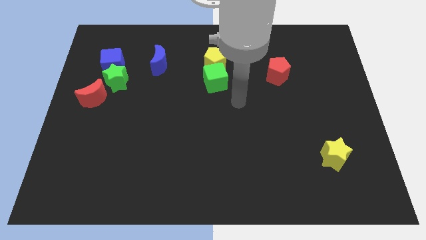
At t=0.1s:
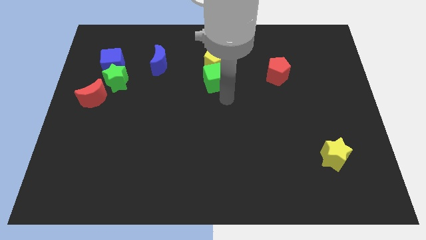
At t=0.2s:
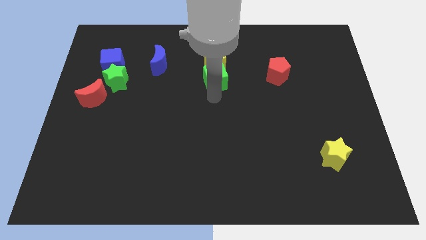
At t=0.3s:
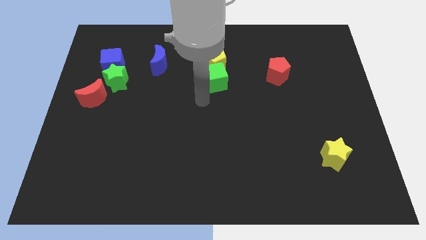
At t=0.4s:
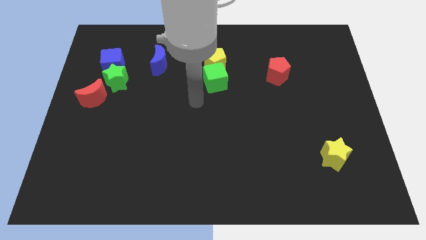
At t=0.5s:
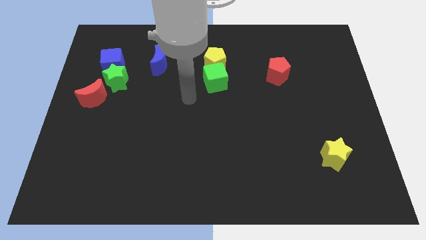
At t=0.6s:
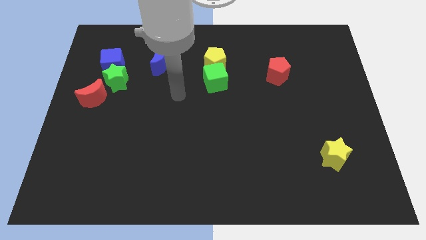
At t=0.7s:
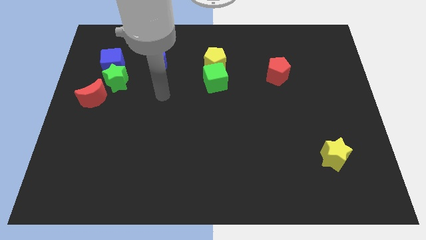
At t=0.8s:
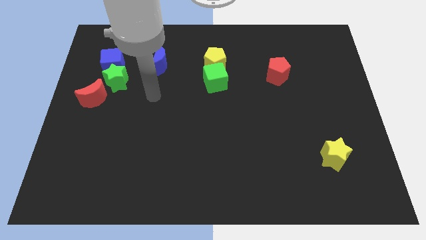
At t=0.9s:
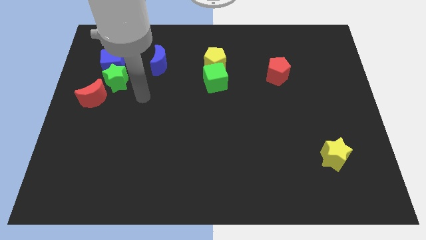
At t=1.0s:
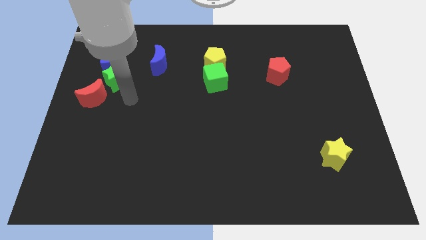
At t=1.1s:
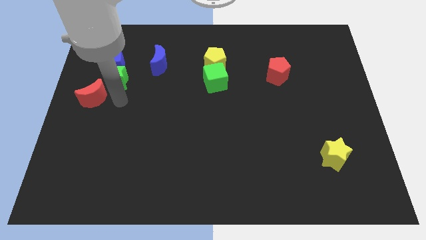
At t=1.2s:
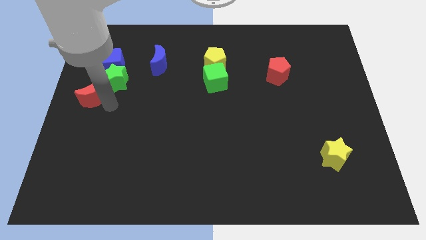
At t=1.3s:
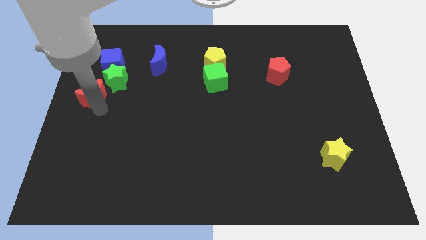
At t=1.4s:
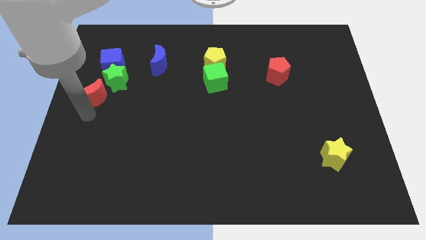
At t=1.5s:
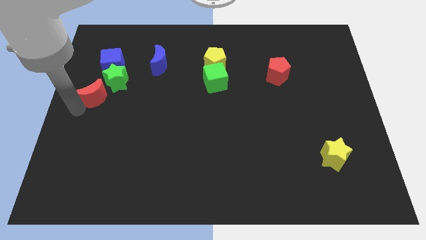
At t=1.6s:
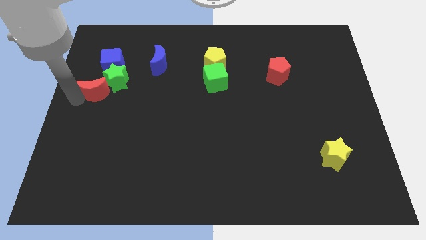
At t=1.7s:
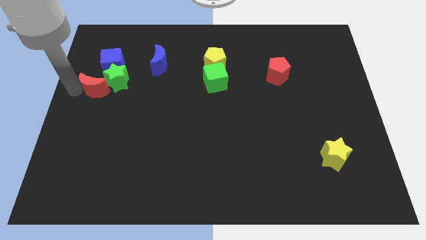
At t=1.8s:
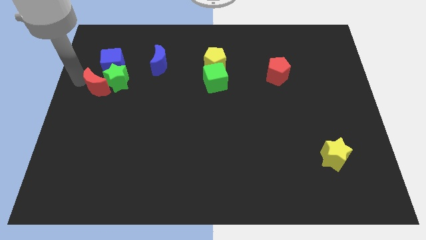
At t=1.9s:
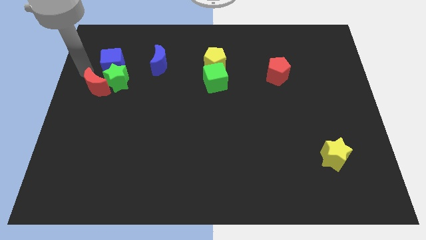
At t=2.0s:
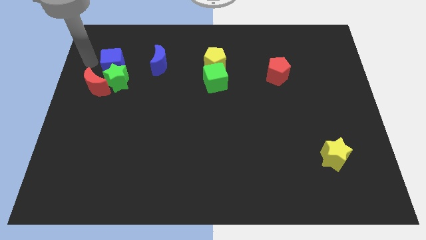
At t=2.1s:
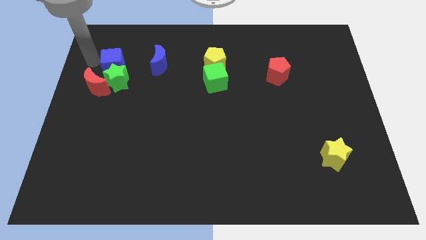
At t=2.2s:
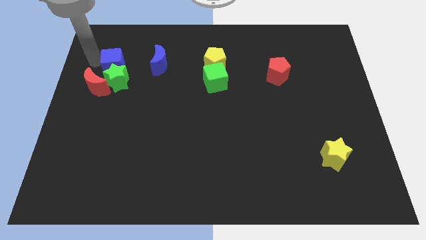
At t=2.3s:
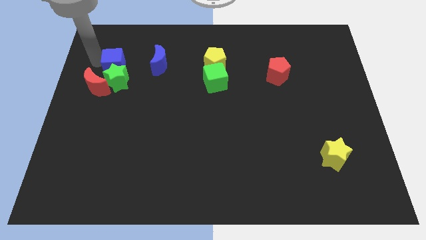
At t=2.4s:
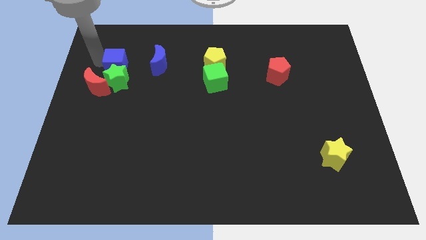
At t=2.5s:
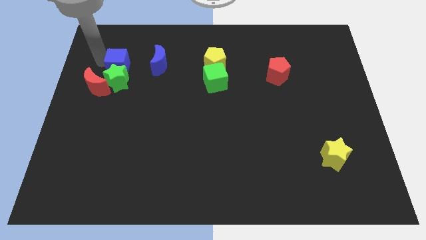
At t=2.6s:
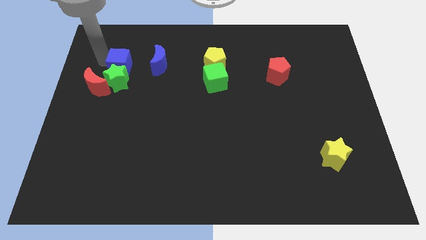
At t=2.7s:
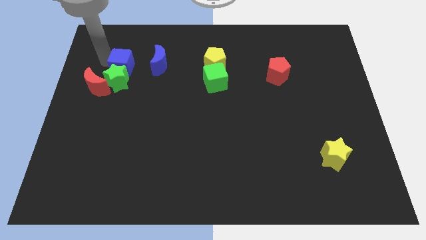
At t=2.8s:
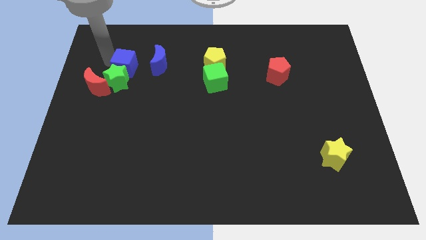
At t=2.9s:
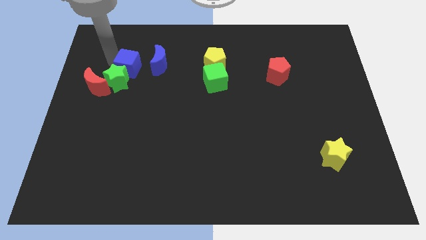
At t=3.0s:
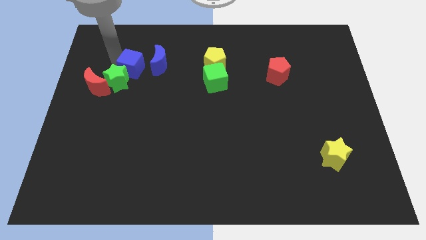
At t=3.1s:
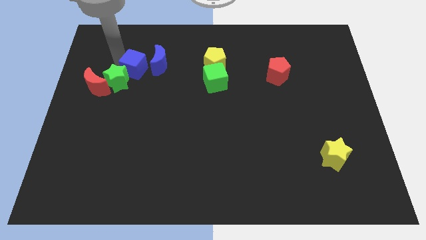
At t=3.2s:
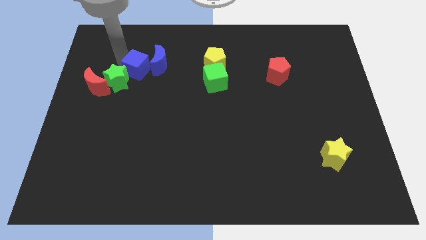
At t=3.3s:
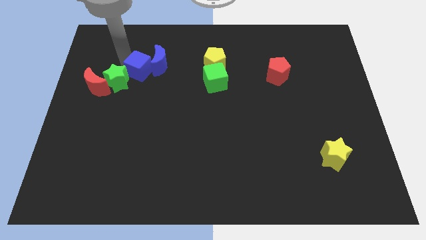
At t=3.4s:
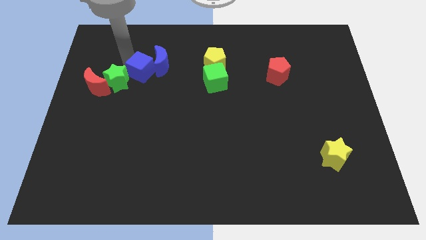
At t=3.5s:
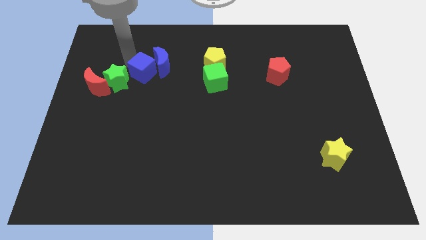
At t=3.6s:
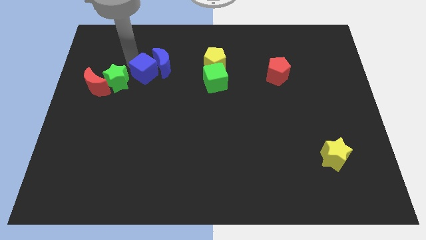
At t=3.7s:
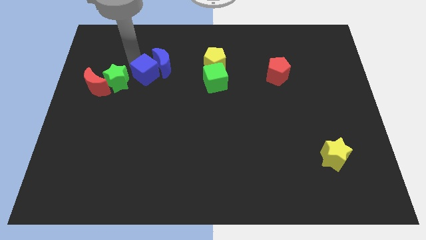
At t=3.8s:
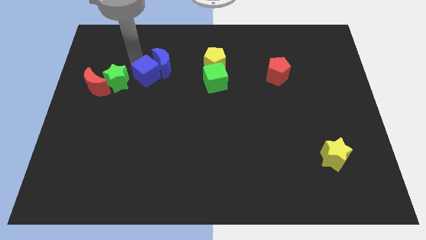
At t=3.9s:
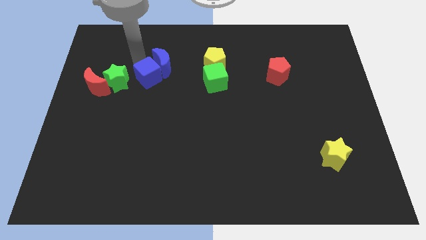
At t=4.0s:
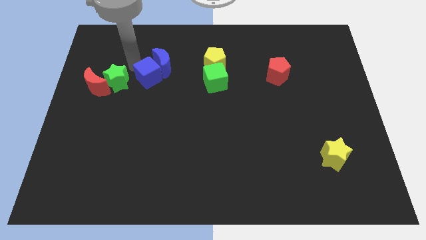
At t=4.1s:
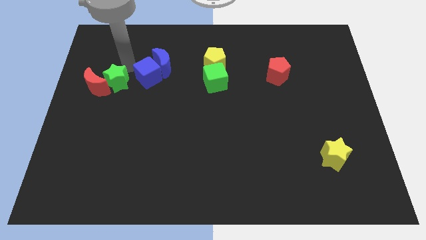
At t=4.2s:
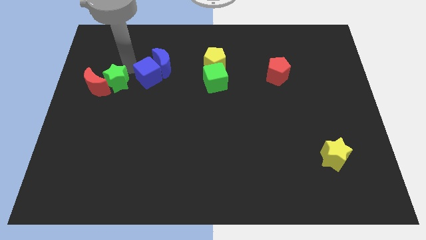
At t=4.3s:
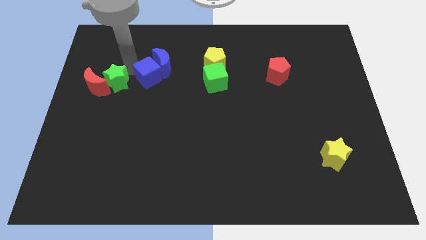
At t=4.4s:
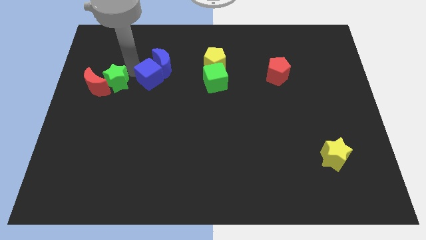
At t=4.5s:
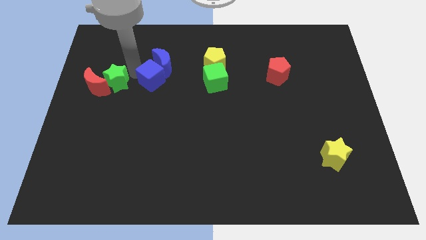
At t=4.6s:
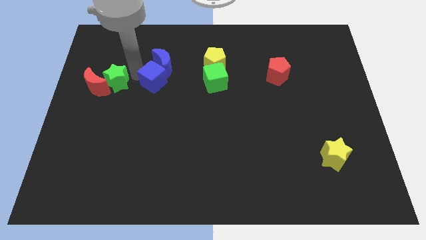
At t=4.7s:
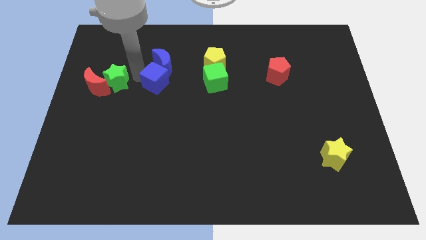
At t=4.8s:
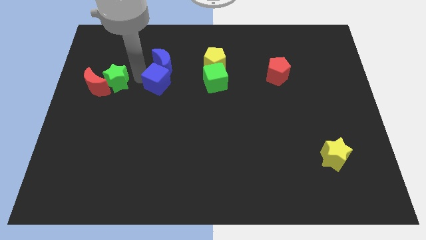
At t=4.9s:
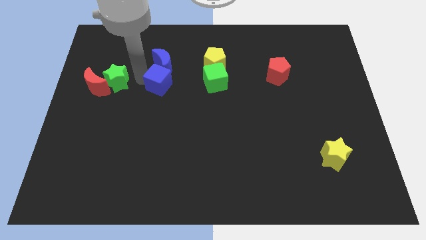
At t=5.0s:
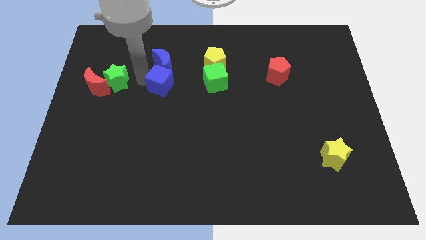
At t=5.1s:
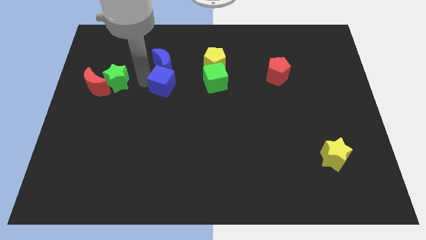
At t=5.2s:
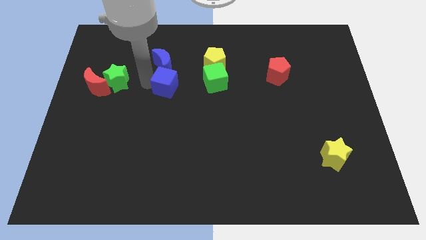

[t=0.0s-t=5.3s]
put the blue cube to the middle
